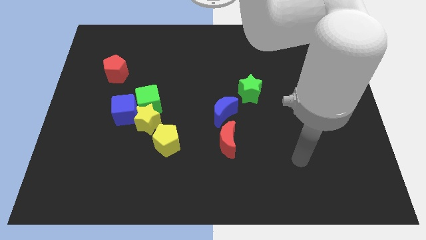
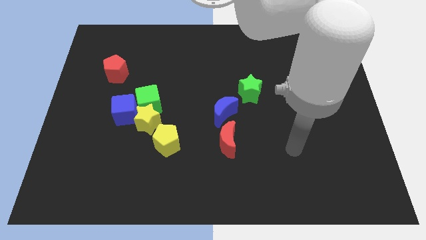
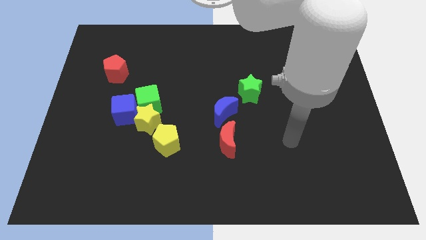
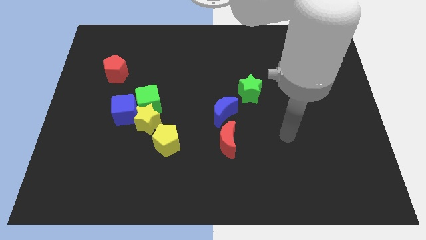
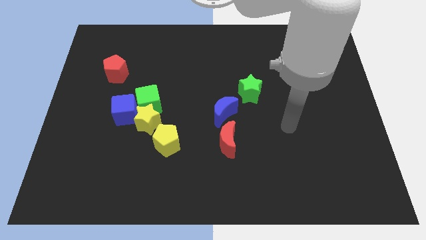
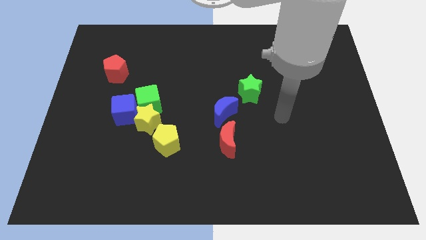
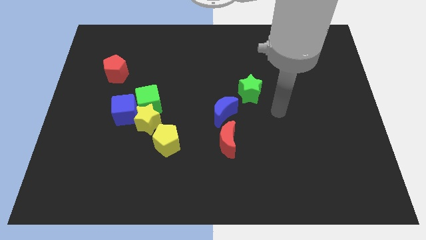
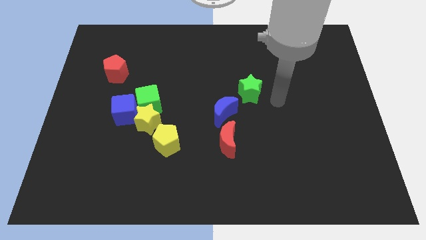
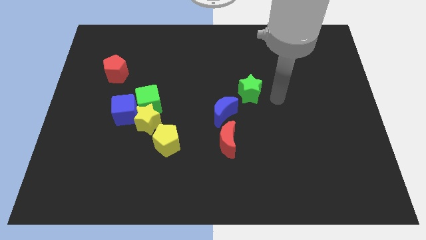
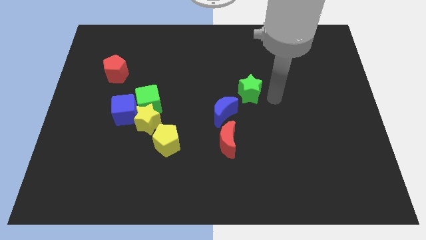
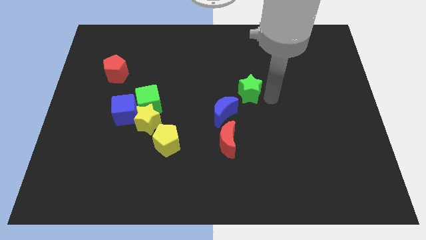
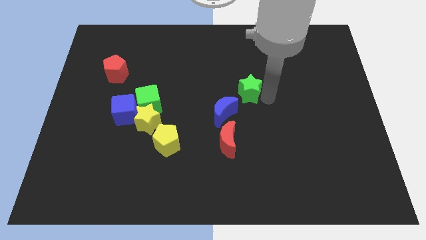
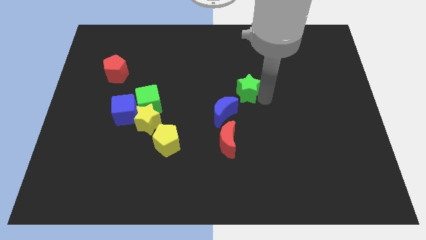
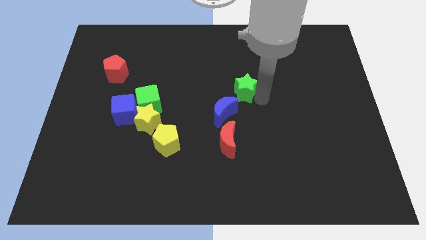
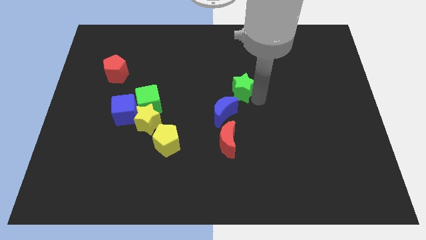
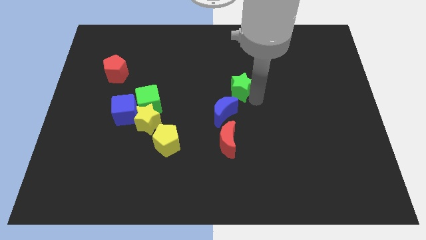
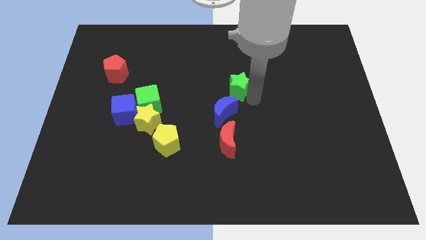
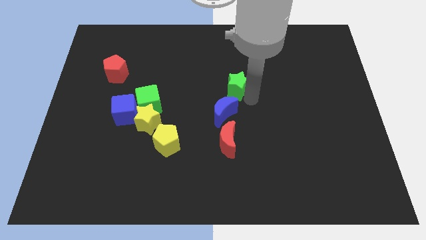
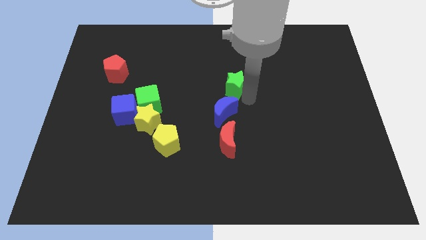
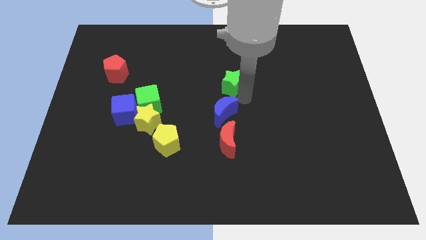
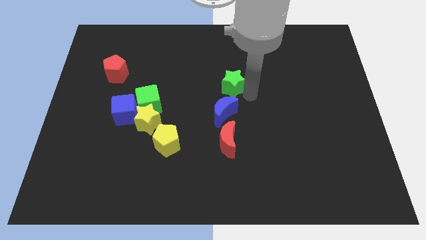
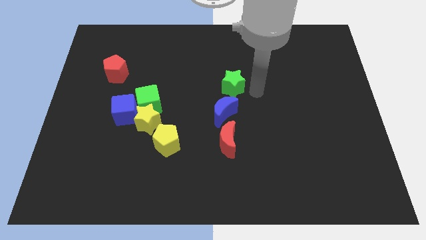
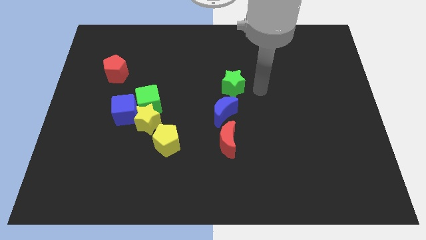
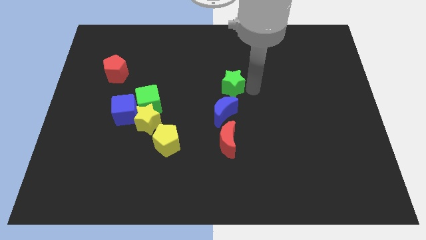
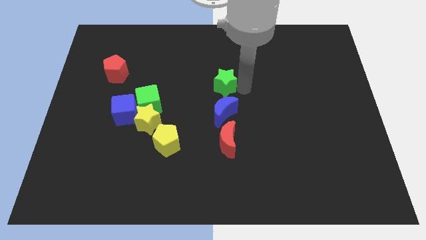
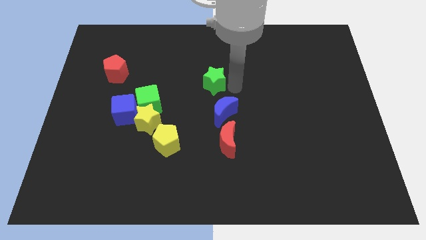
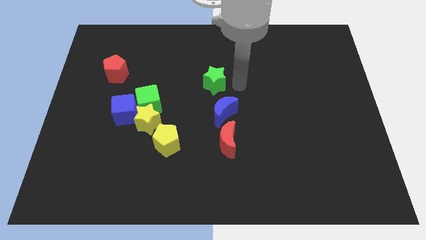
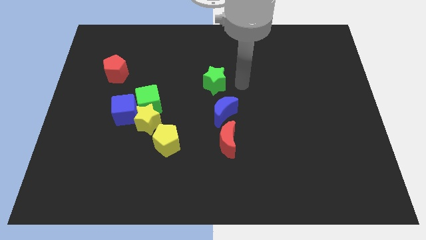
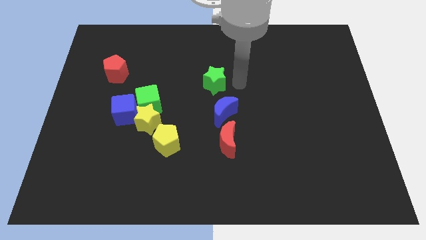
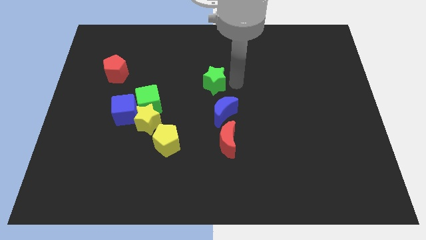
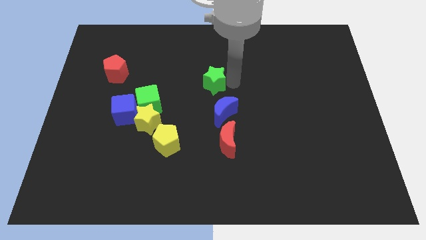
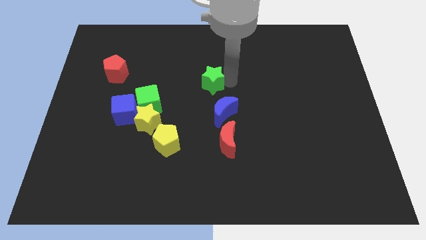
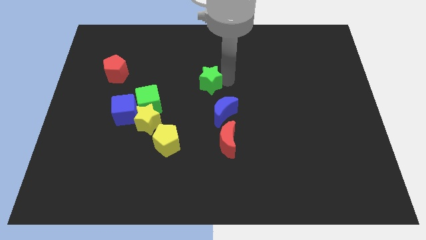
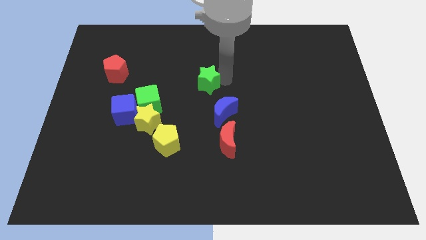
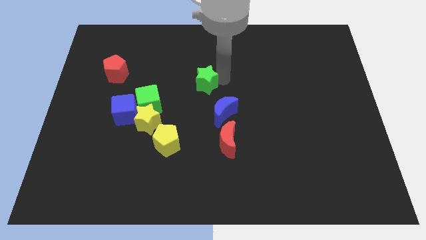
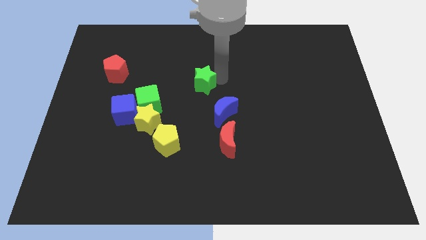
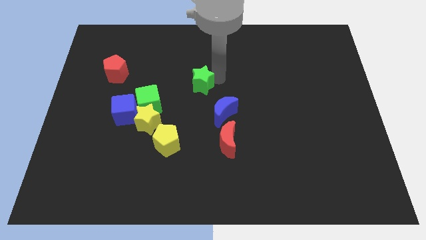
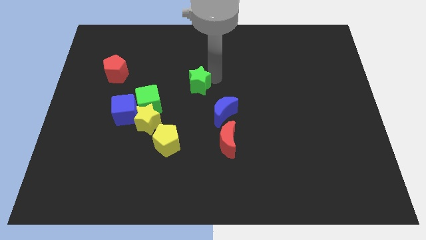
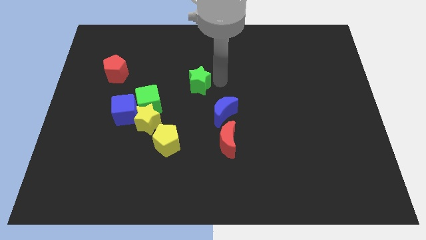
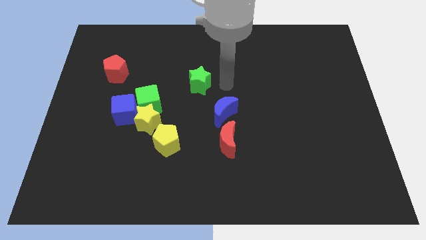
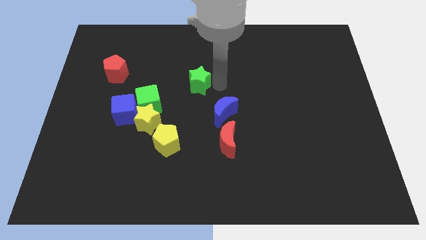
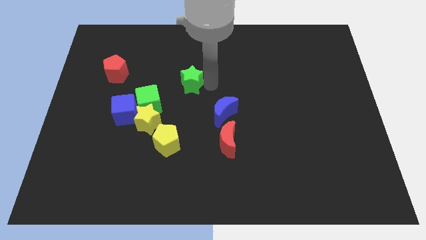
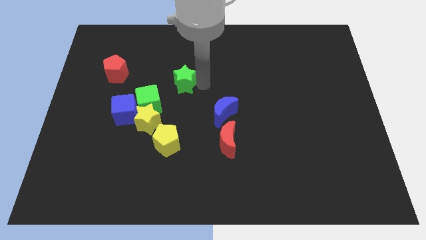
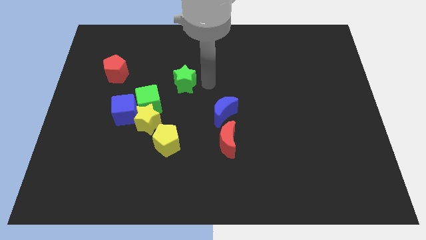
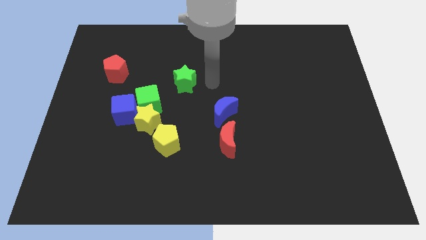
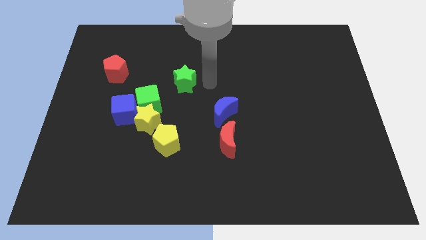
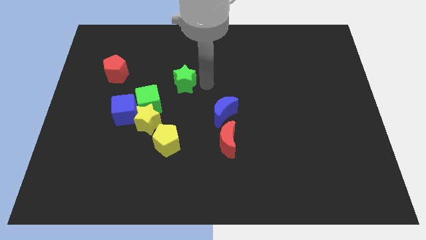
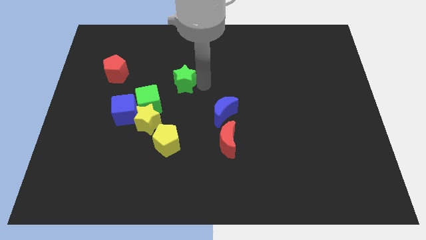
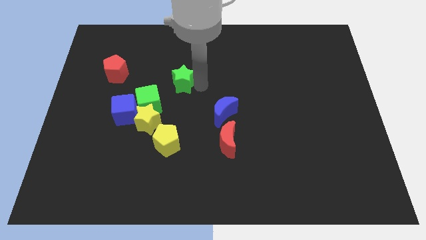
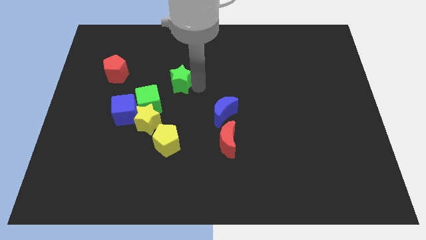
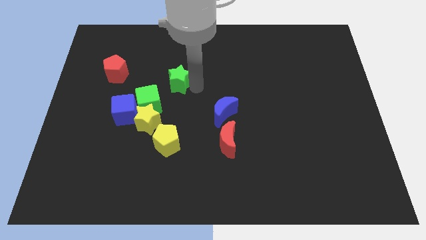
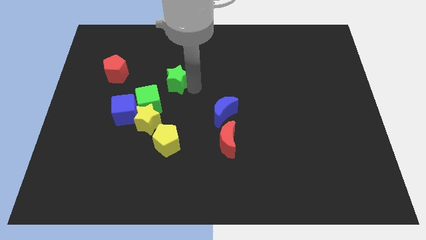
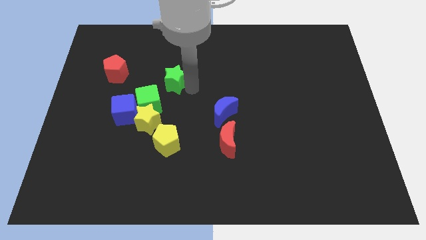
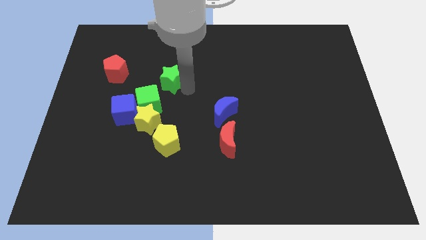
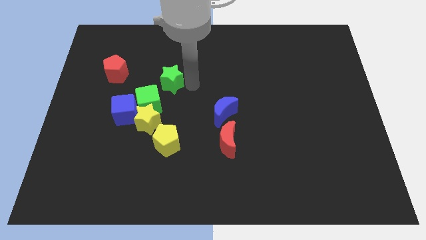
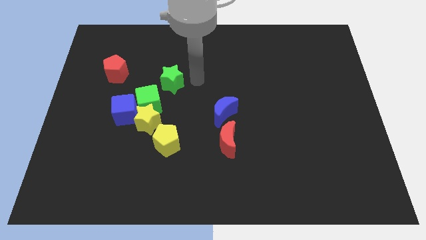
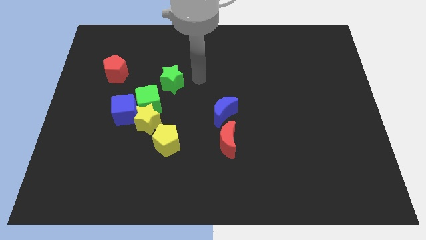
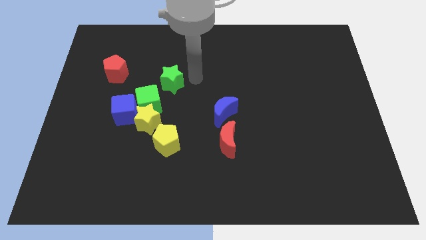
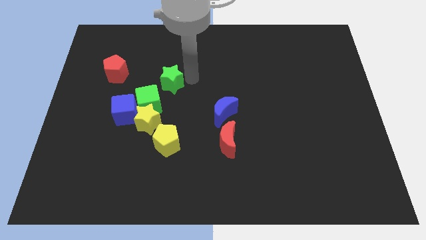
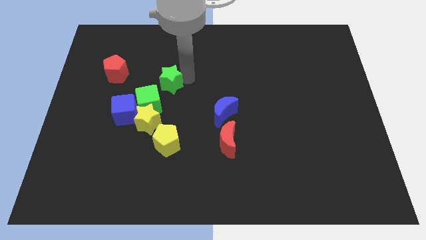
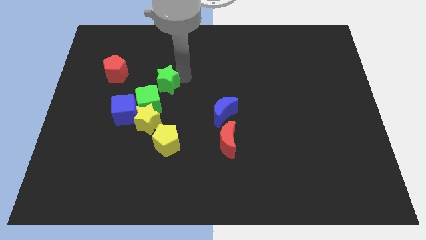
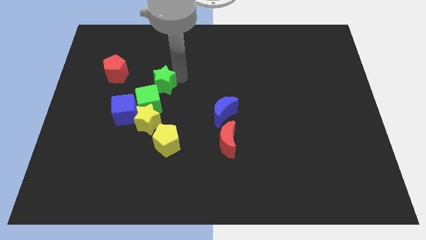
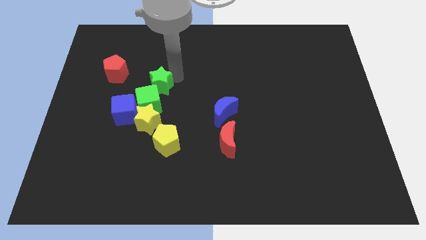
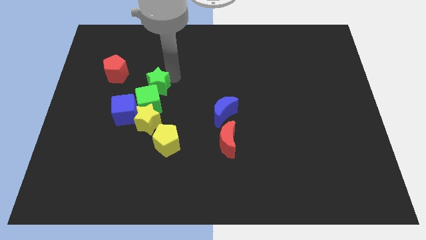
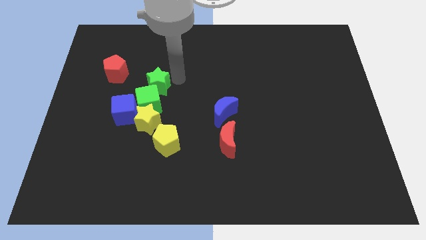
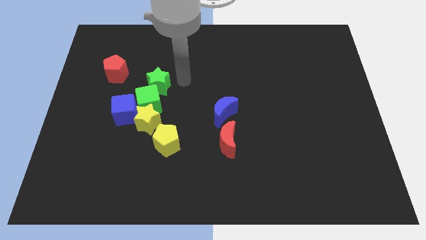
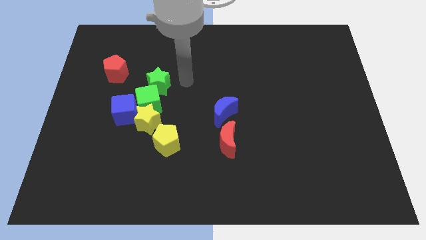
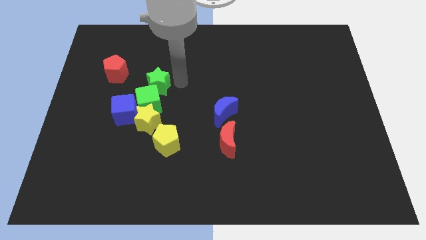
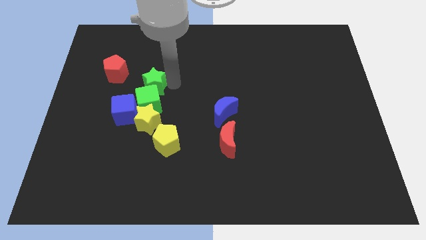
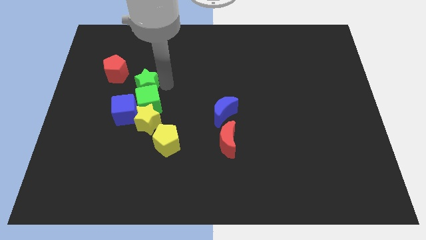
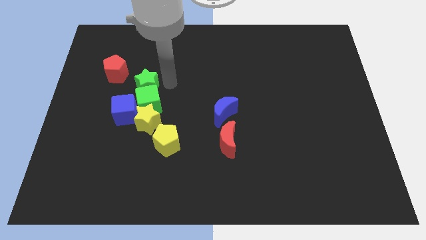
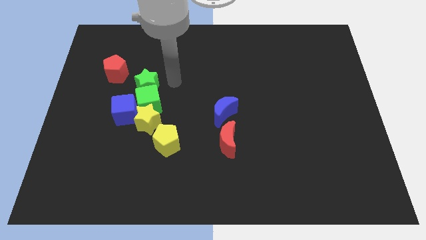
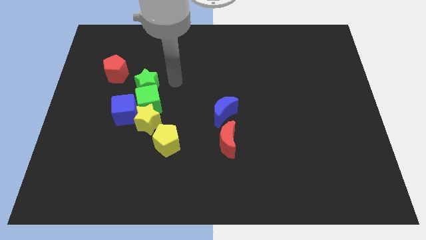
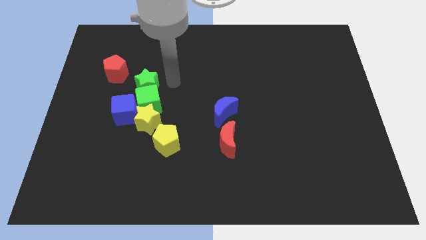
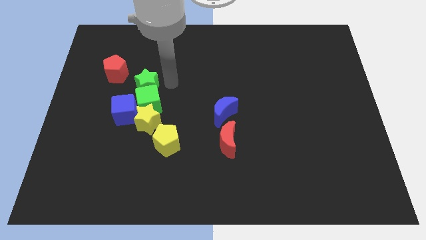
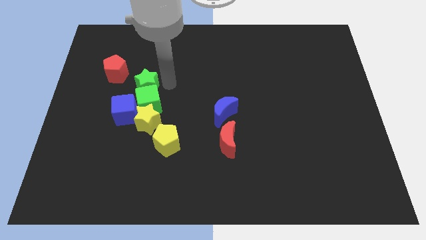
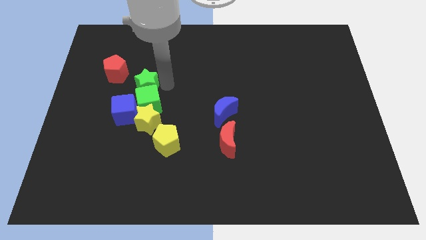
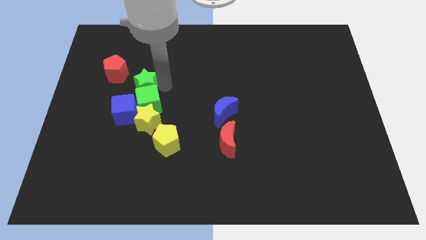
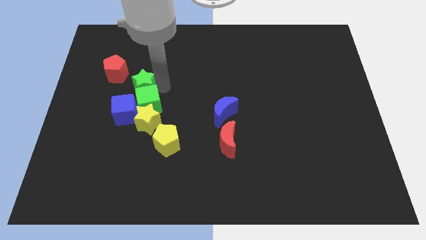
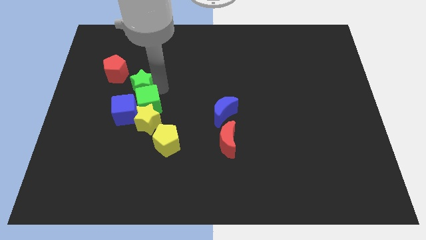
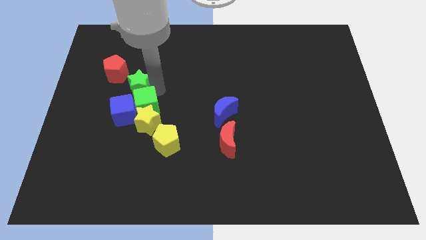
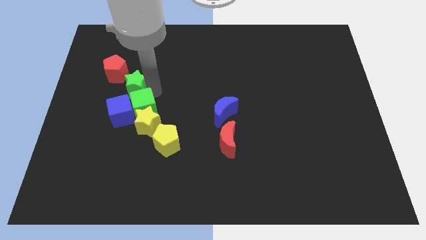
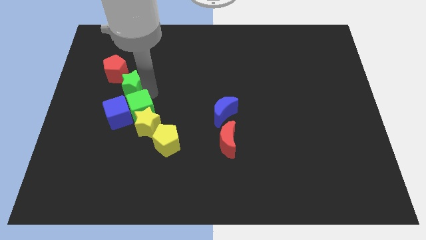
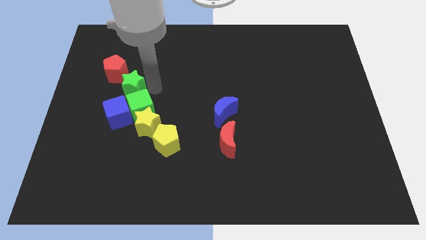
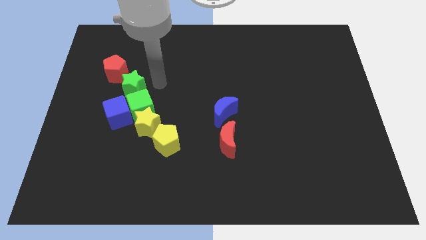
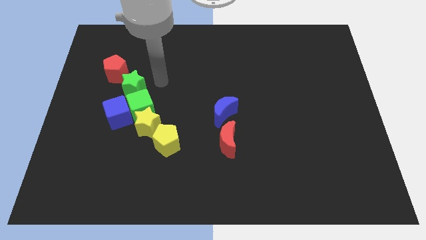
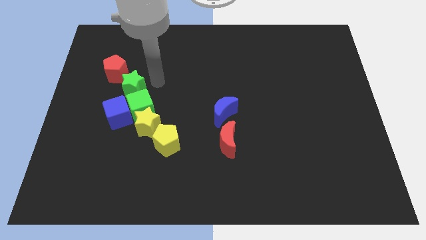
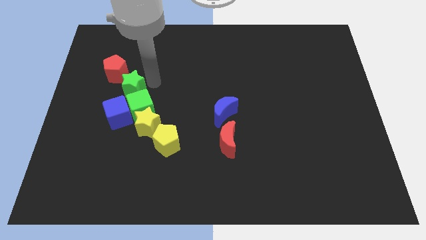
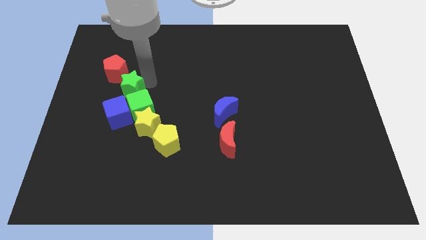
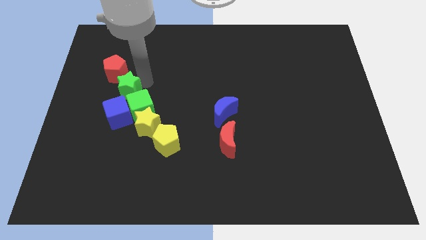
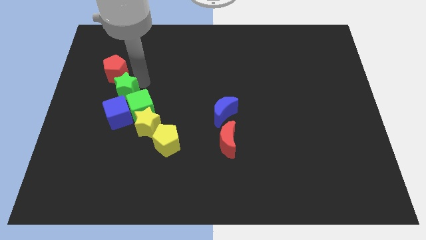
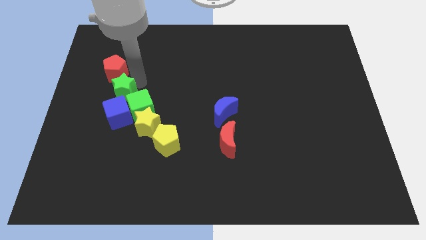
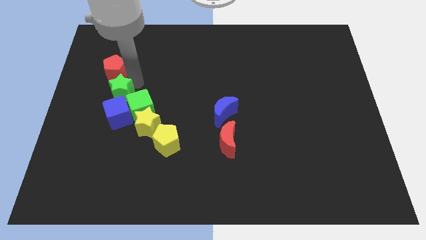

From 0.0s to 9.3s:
put the green star to the top left of the blue cube
